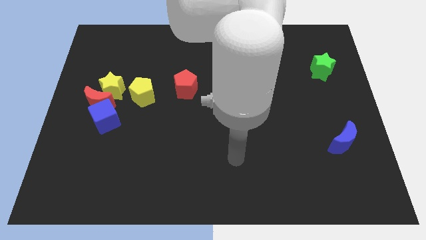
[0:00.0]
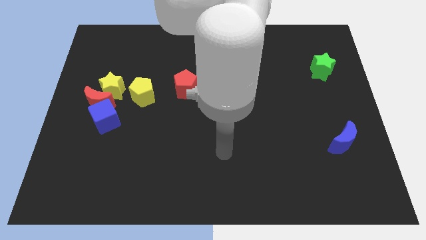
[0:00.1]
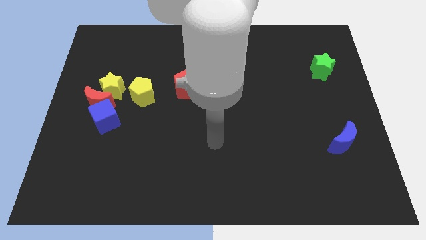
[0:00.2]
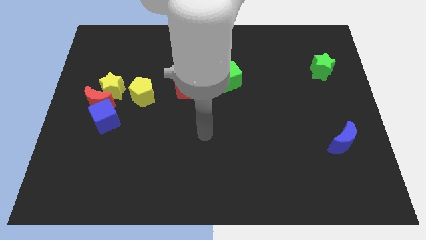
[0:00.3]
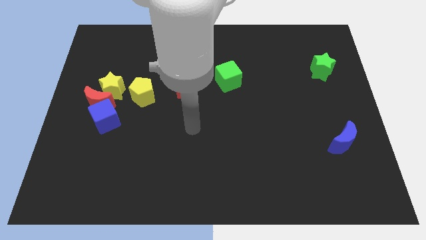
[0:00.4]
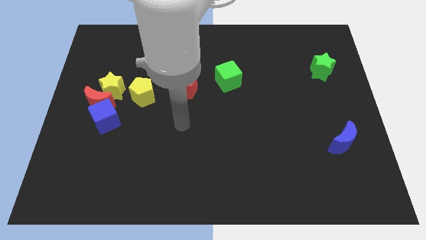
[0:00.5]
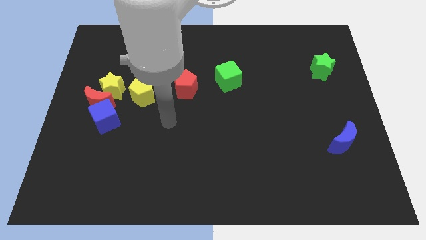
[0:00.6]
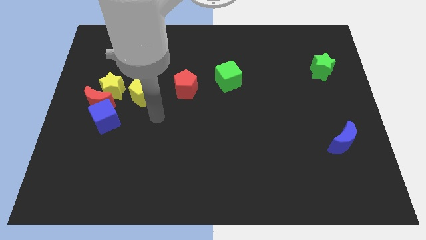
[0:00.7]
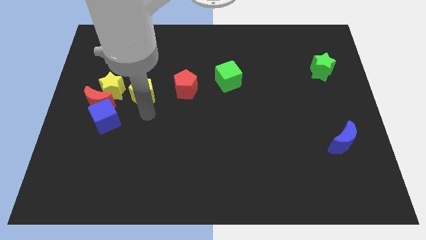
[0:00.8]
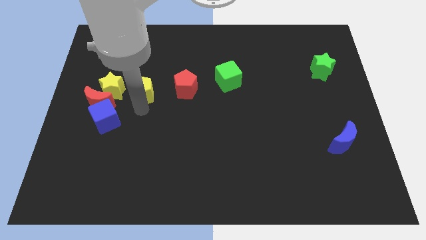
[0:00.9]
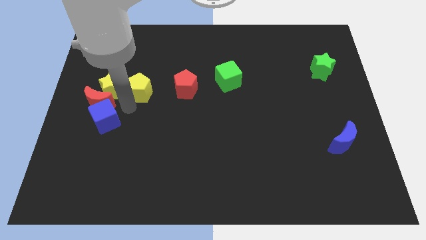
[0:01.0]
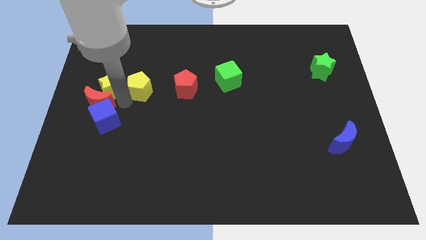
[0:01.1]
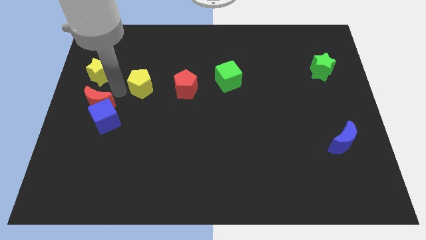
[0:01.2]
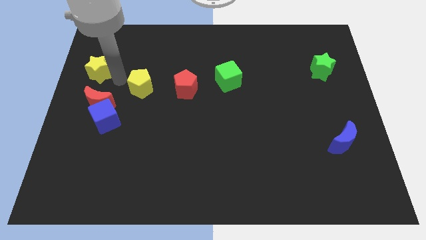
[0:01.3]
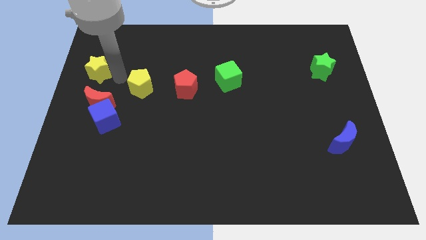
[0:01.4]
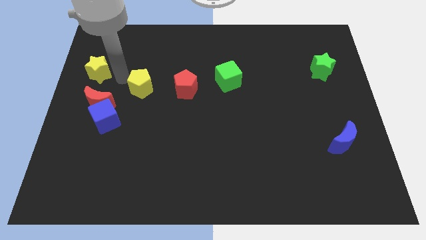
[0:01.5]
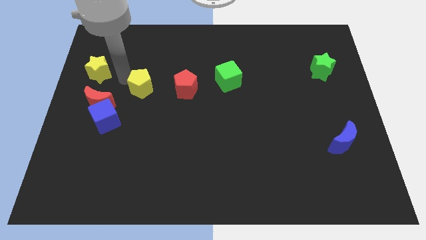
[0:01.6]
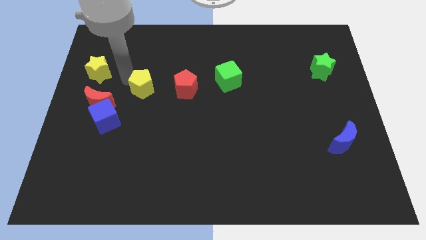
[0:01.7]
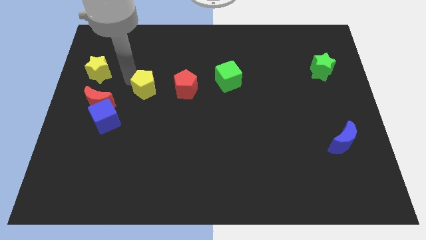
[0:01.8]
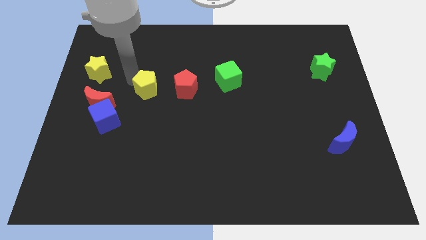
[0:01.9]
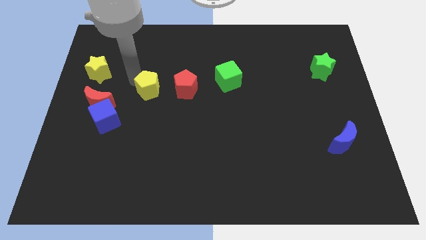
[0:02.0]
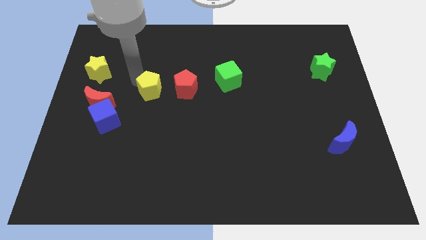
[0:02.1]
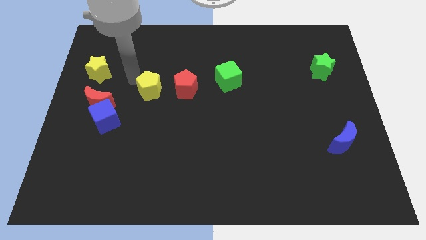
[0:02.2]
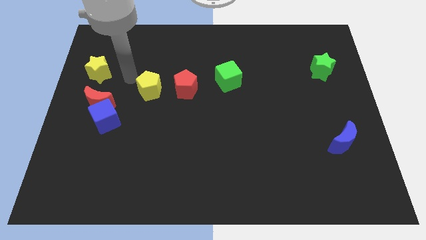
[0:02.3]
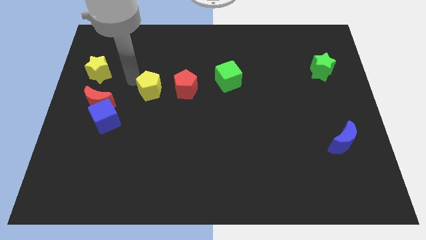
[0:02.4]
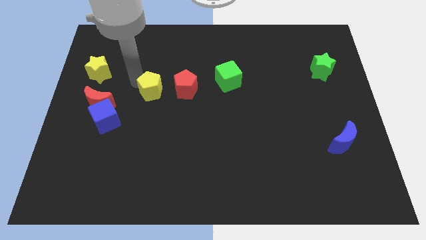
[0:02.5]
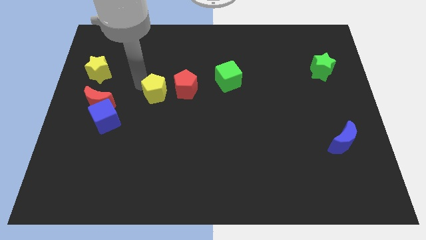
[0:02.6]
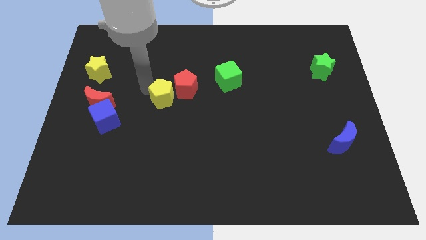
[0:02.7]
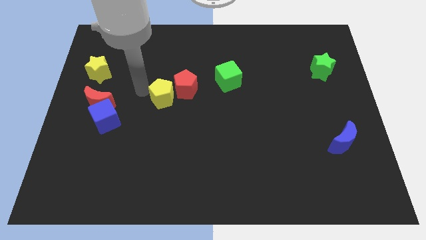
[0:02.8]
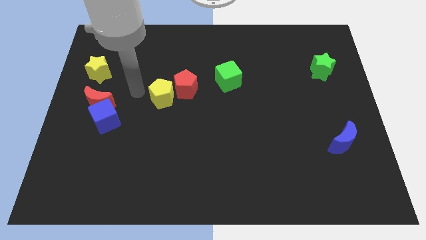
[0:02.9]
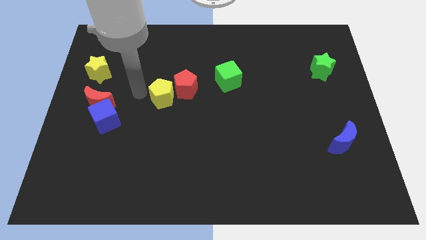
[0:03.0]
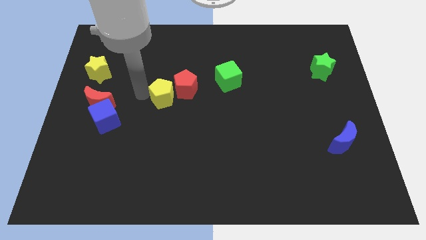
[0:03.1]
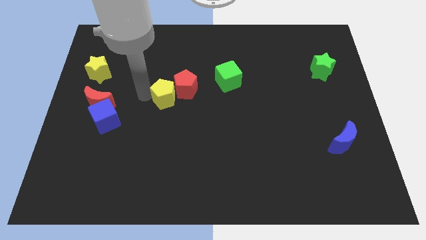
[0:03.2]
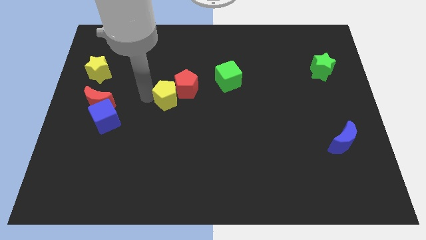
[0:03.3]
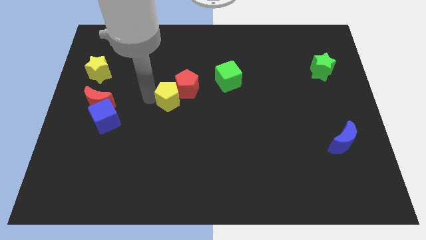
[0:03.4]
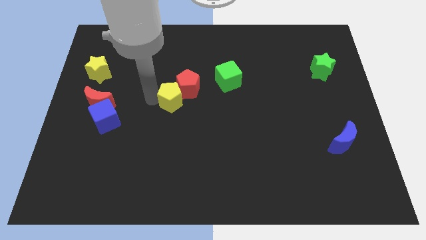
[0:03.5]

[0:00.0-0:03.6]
move the yellow pentagon a little bit to the right

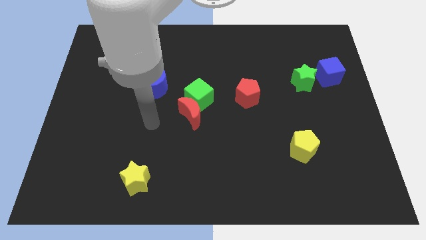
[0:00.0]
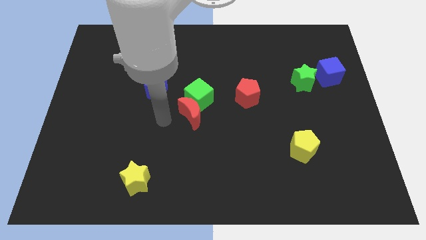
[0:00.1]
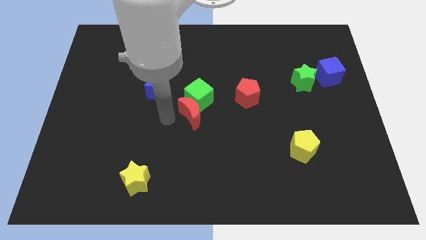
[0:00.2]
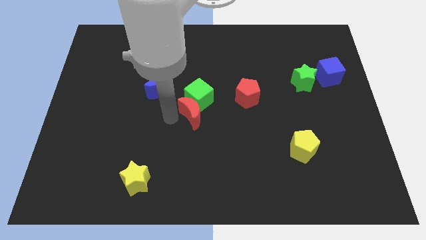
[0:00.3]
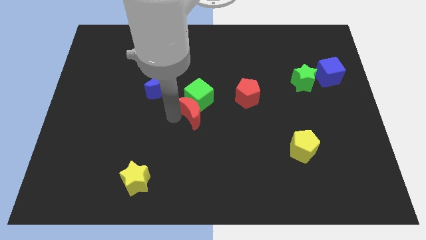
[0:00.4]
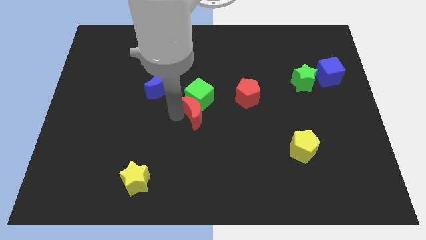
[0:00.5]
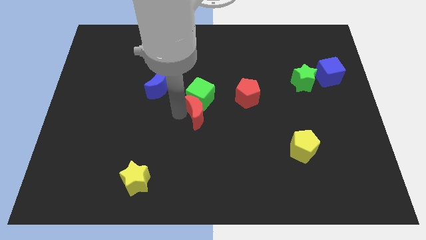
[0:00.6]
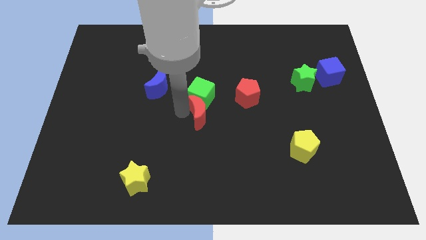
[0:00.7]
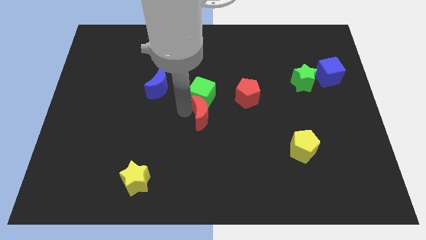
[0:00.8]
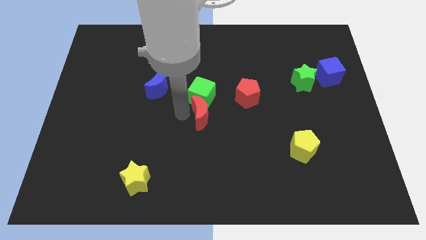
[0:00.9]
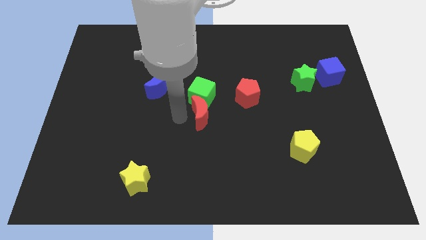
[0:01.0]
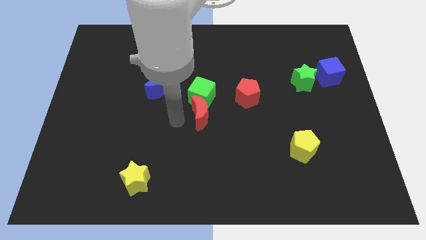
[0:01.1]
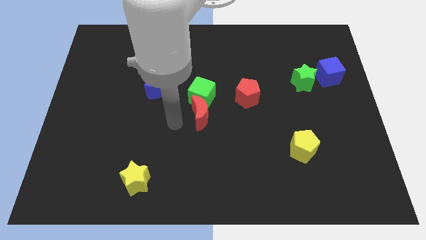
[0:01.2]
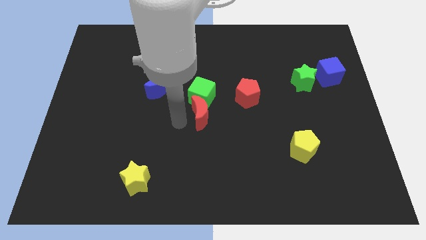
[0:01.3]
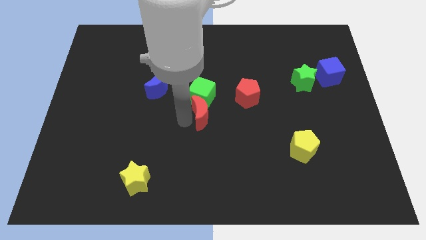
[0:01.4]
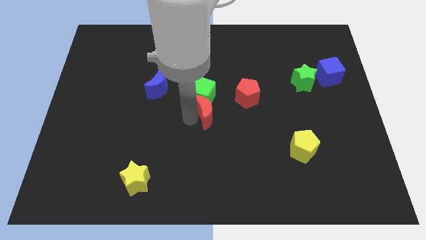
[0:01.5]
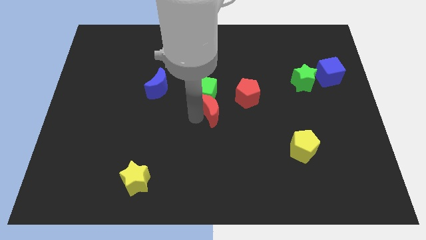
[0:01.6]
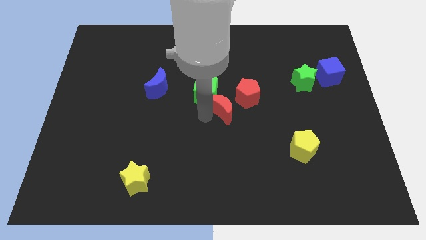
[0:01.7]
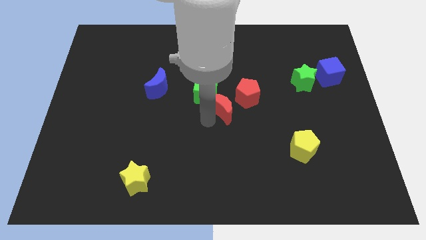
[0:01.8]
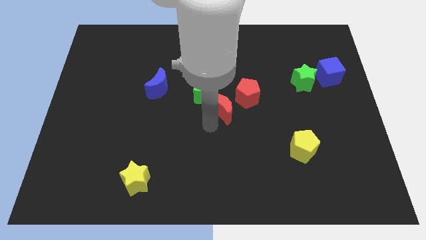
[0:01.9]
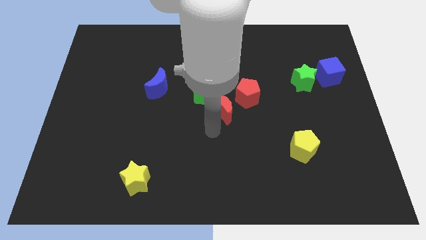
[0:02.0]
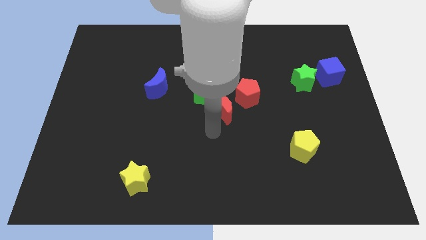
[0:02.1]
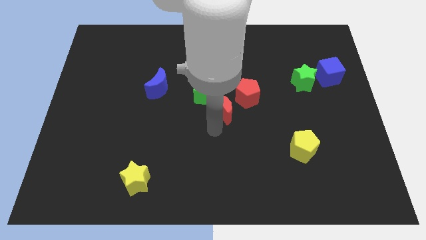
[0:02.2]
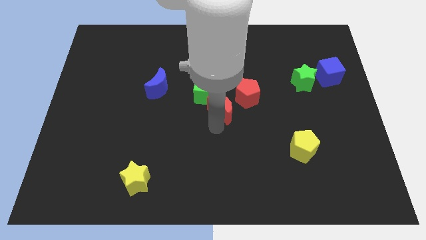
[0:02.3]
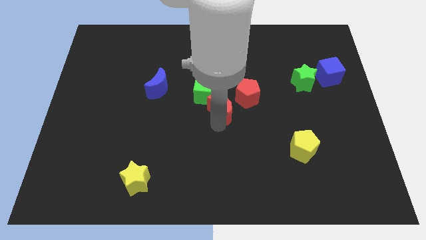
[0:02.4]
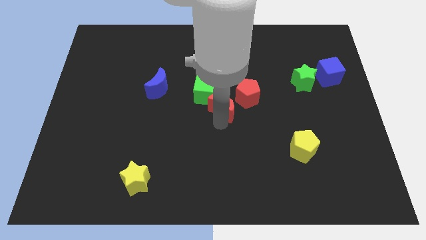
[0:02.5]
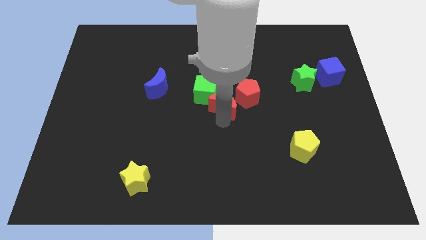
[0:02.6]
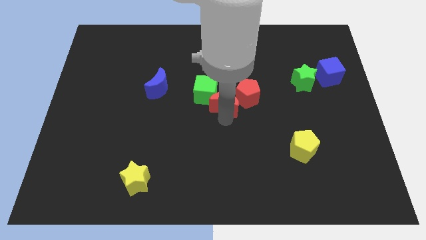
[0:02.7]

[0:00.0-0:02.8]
slide the red moon a little up and to the right

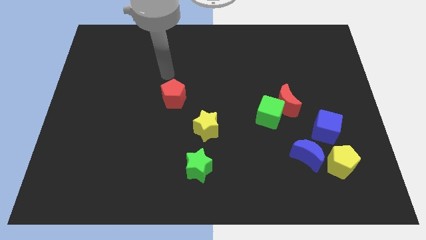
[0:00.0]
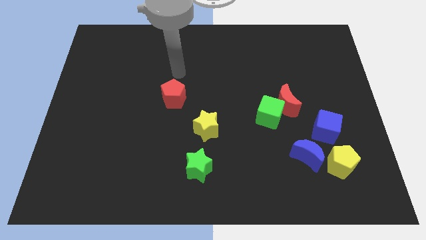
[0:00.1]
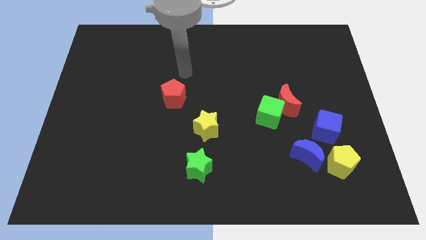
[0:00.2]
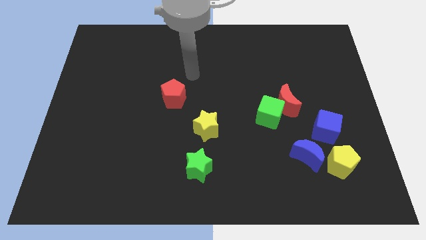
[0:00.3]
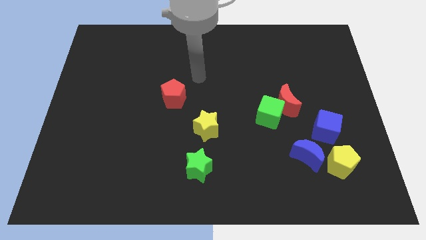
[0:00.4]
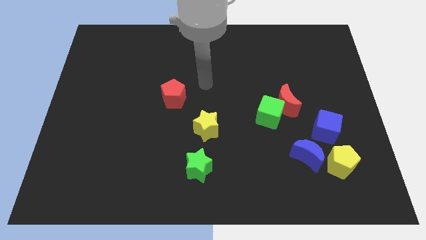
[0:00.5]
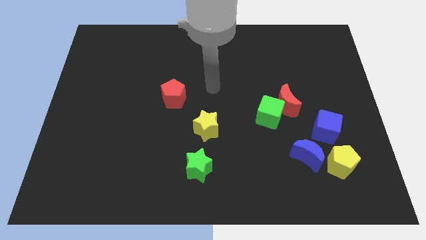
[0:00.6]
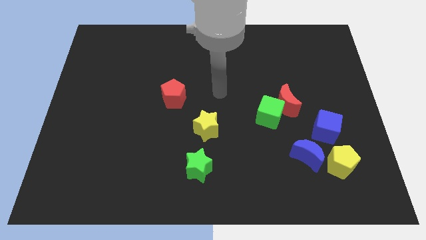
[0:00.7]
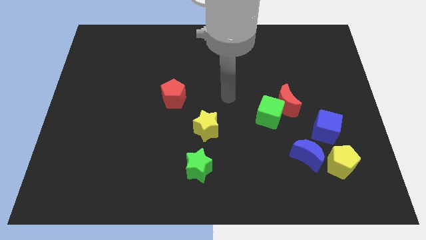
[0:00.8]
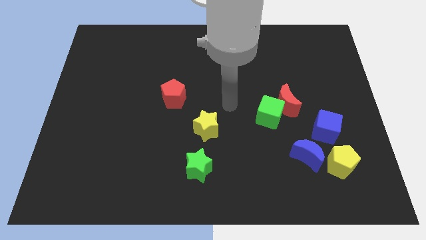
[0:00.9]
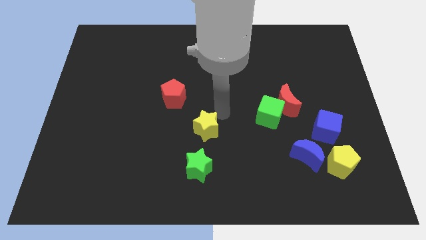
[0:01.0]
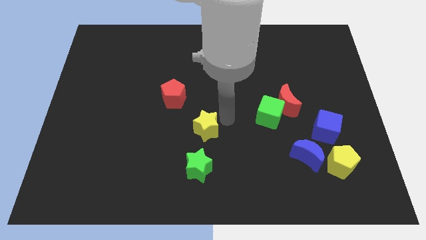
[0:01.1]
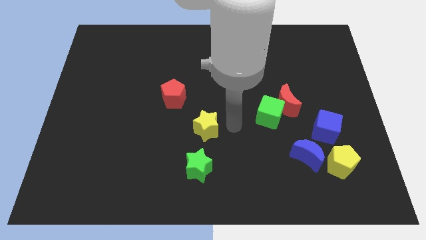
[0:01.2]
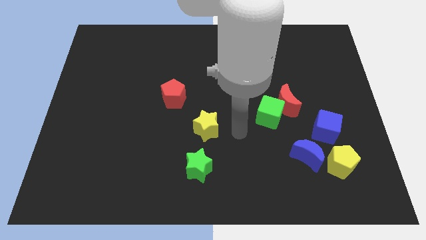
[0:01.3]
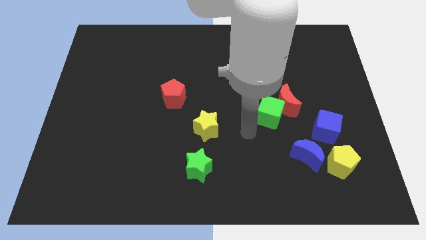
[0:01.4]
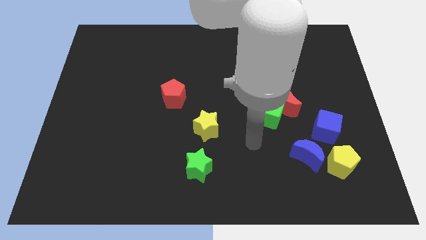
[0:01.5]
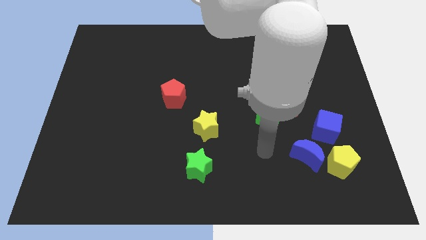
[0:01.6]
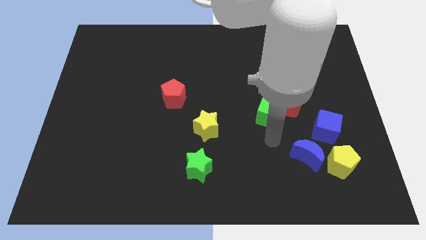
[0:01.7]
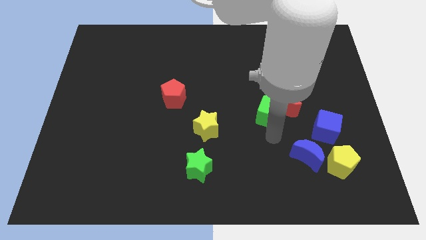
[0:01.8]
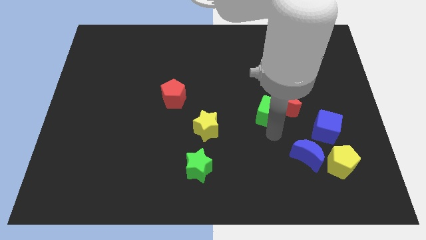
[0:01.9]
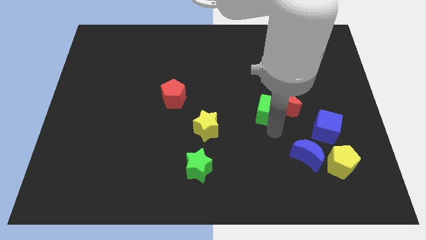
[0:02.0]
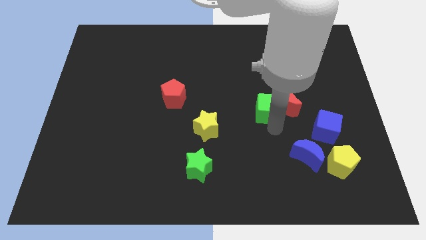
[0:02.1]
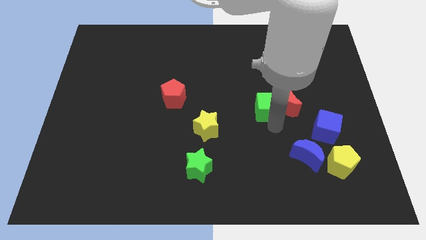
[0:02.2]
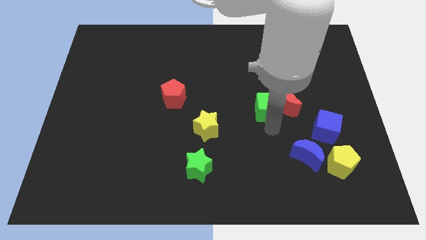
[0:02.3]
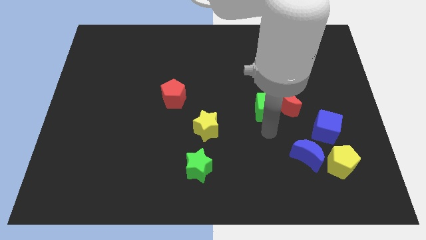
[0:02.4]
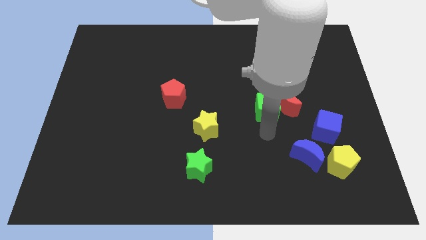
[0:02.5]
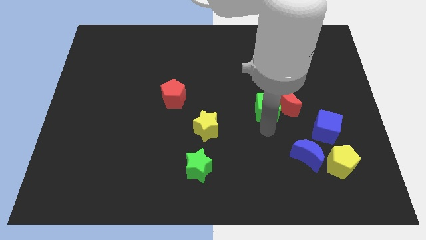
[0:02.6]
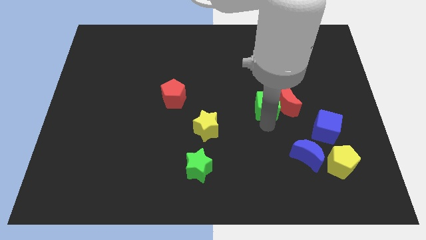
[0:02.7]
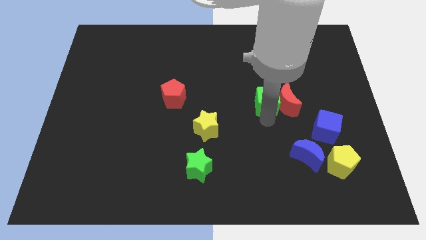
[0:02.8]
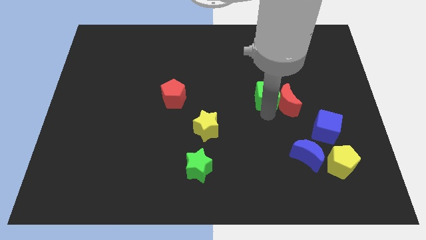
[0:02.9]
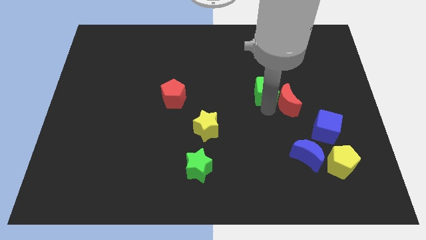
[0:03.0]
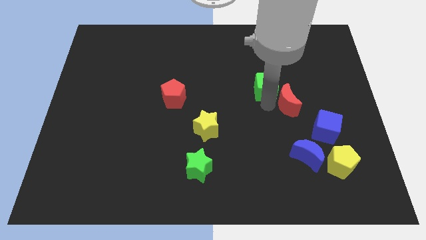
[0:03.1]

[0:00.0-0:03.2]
move the green cube a bit upwards
